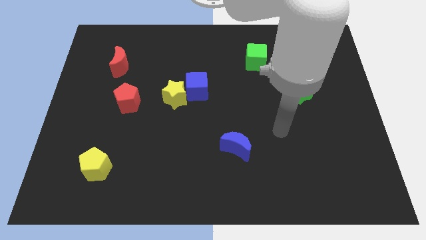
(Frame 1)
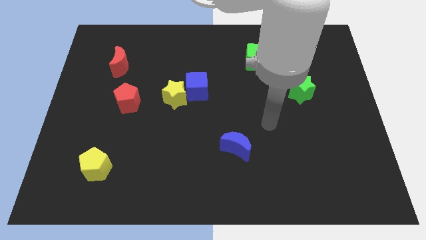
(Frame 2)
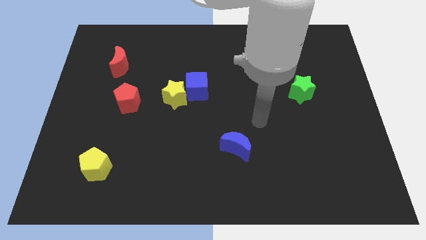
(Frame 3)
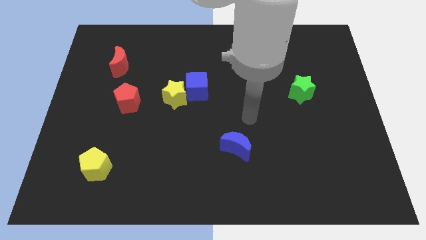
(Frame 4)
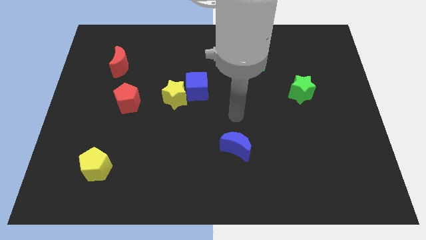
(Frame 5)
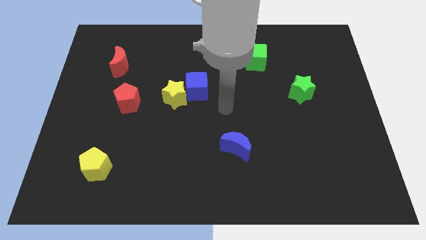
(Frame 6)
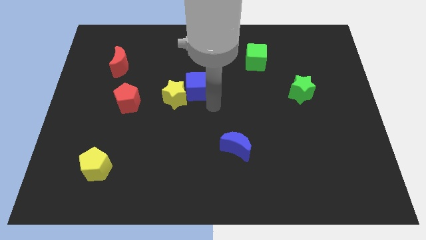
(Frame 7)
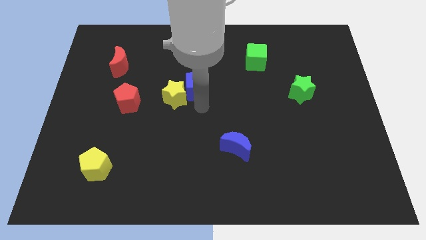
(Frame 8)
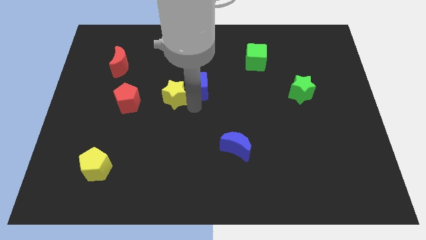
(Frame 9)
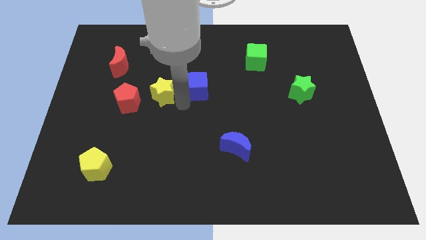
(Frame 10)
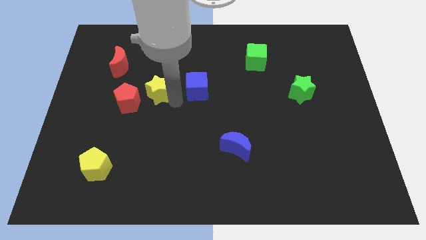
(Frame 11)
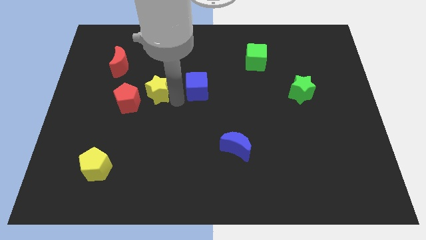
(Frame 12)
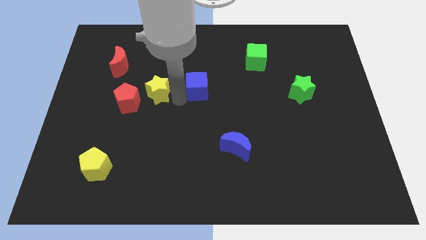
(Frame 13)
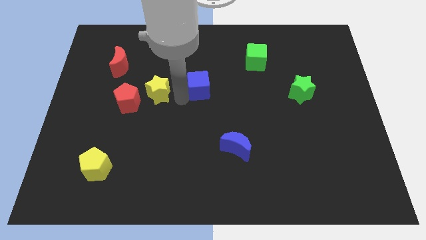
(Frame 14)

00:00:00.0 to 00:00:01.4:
separate the blue cube from the yellow star

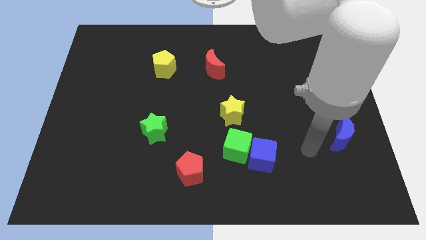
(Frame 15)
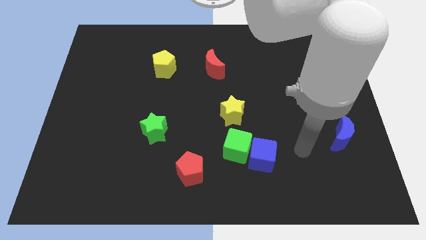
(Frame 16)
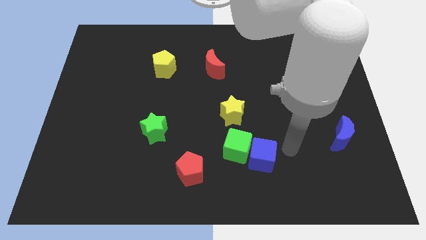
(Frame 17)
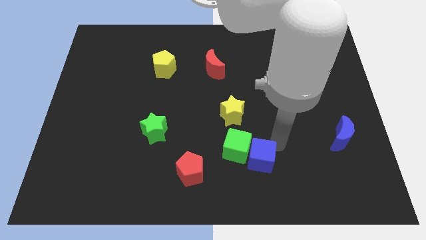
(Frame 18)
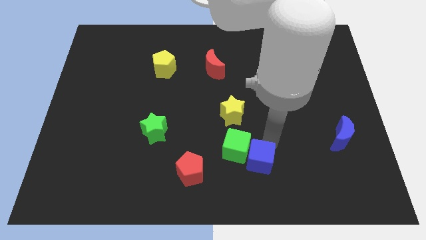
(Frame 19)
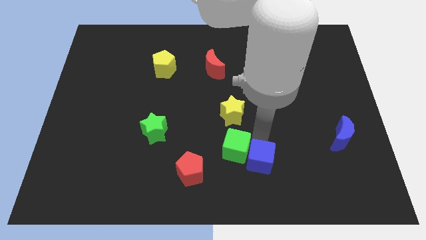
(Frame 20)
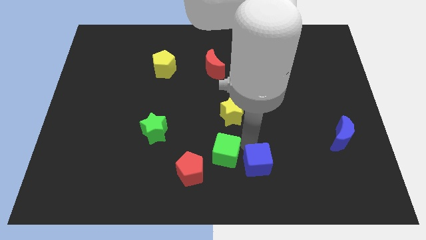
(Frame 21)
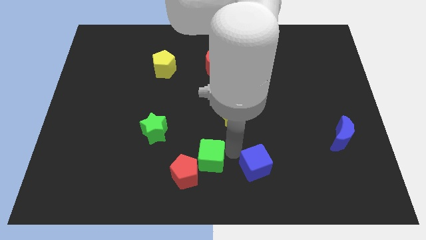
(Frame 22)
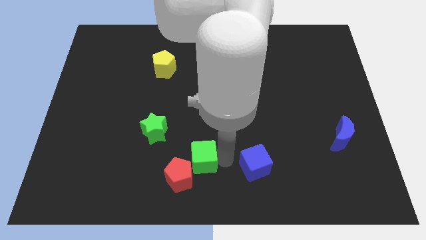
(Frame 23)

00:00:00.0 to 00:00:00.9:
move the blue cube away from the green cube

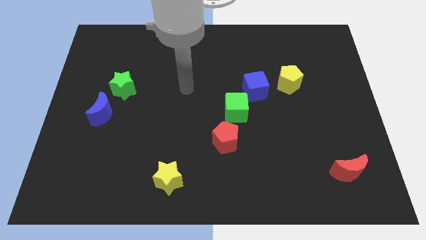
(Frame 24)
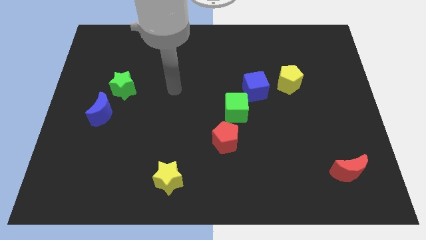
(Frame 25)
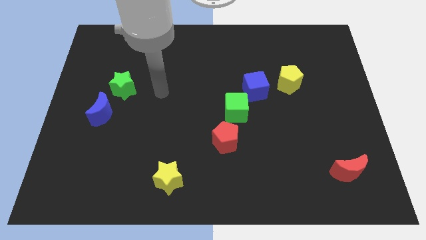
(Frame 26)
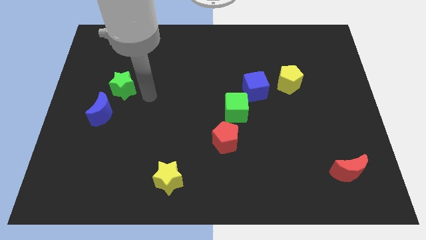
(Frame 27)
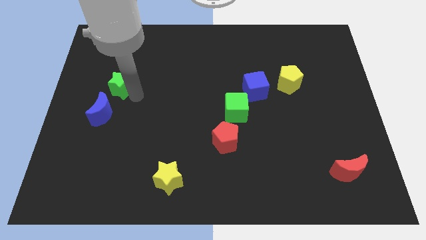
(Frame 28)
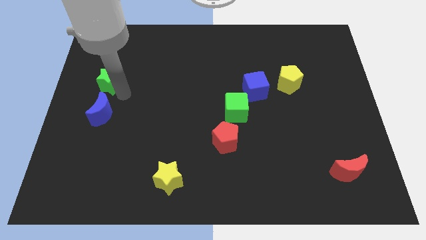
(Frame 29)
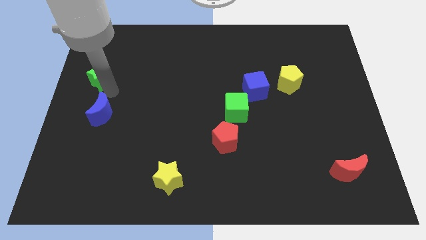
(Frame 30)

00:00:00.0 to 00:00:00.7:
move the blue moon away from the green star

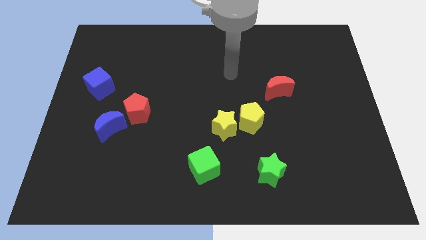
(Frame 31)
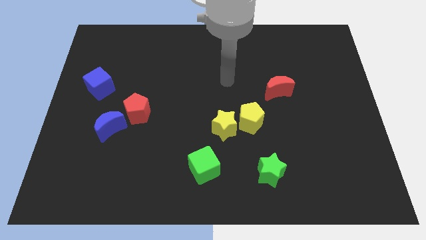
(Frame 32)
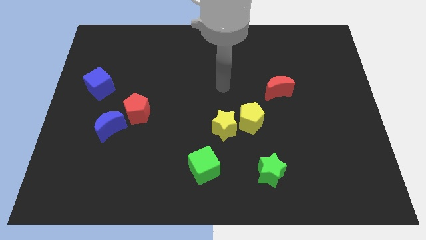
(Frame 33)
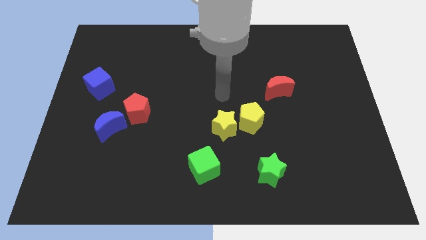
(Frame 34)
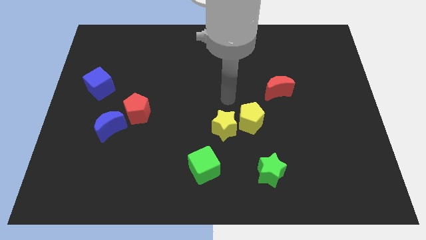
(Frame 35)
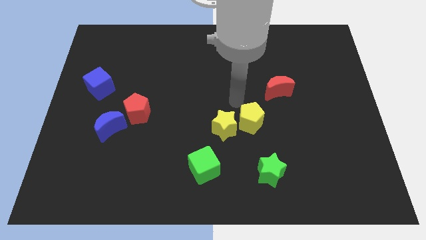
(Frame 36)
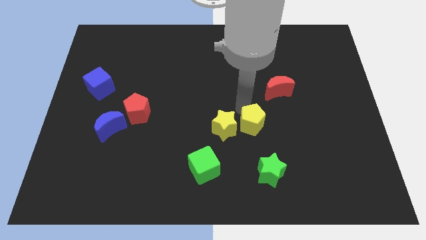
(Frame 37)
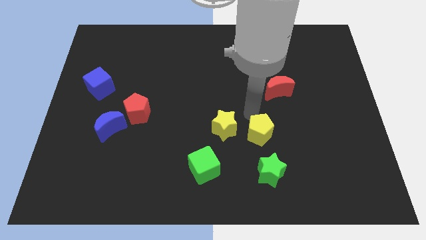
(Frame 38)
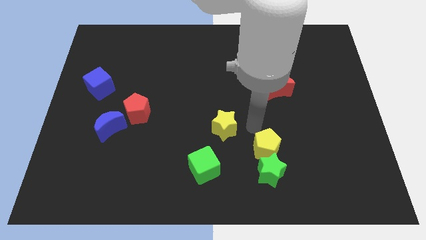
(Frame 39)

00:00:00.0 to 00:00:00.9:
move the yellow star away from the yellow pentagon

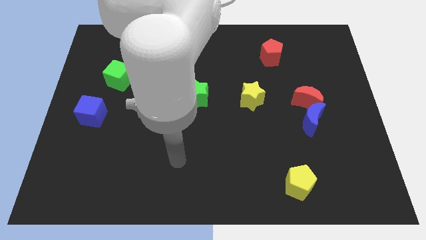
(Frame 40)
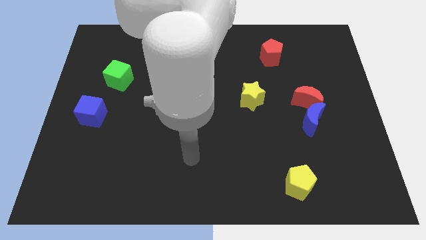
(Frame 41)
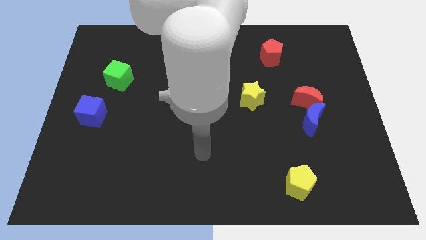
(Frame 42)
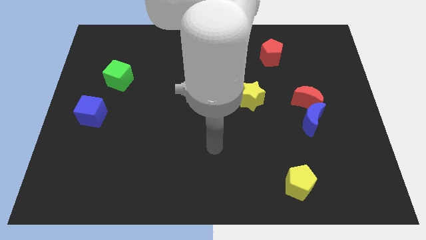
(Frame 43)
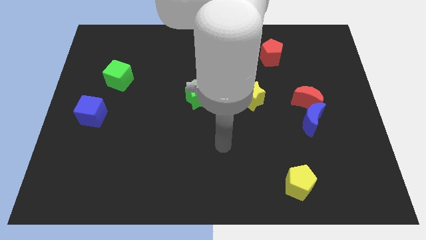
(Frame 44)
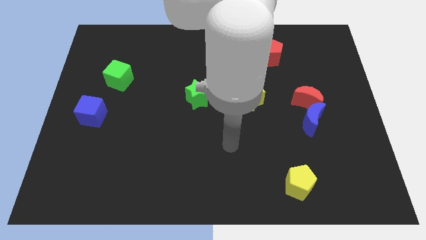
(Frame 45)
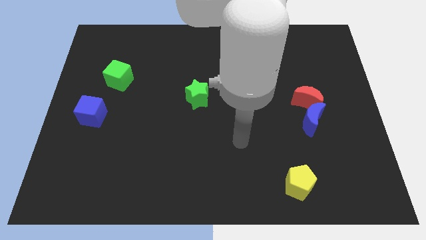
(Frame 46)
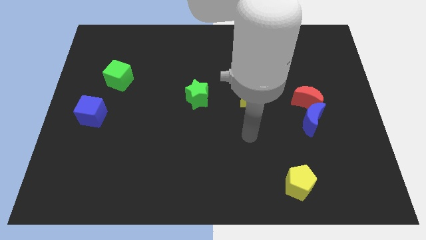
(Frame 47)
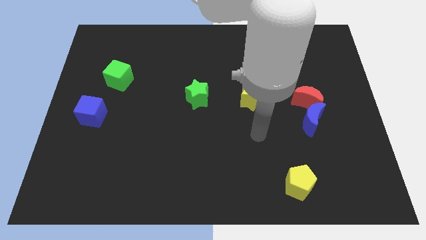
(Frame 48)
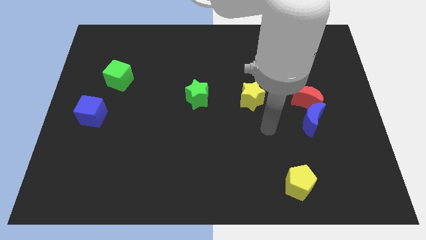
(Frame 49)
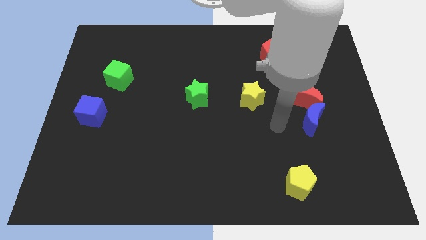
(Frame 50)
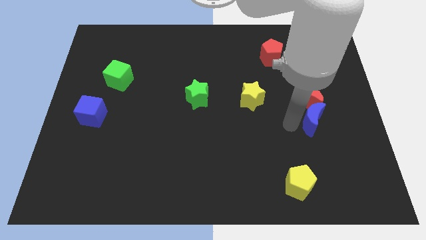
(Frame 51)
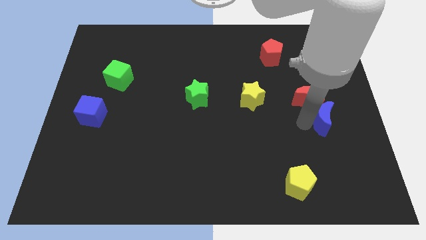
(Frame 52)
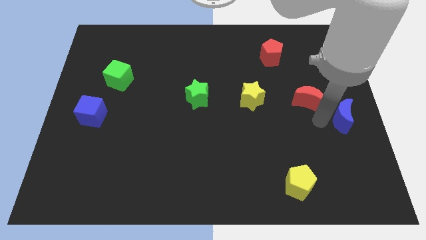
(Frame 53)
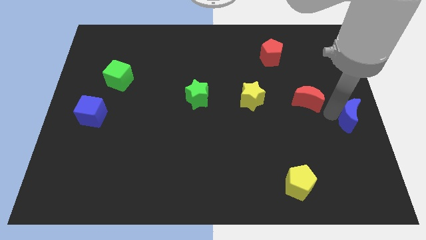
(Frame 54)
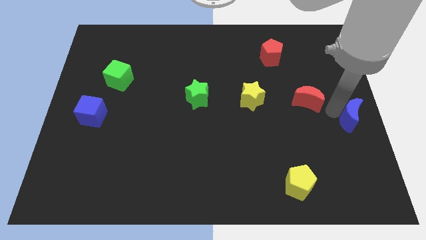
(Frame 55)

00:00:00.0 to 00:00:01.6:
separate the red moon from the blue moon

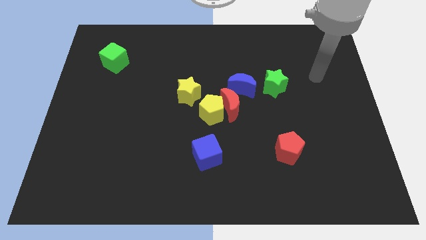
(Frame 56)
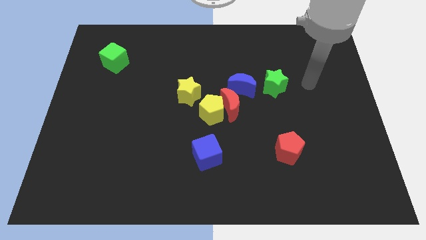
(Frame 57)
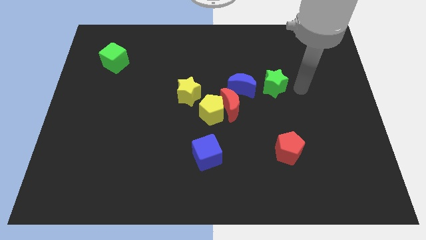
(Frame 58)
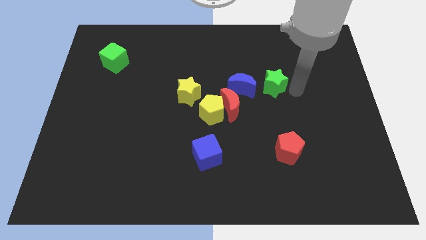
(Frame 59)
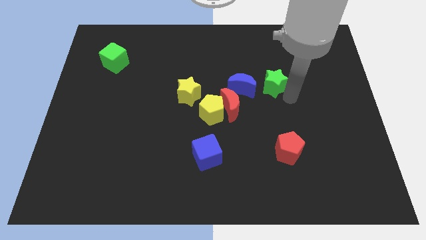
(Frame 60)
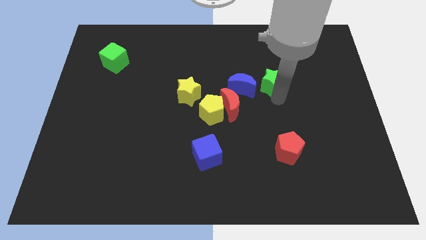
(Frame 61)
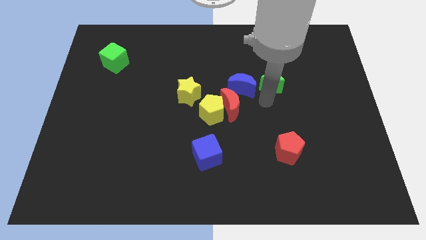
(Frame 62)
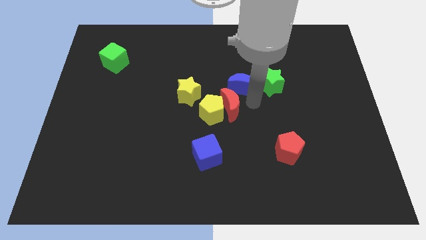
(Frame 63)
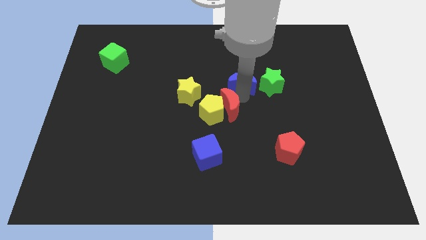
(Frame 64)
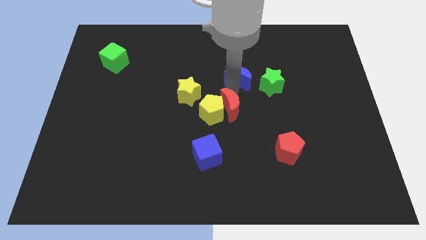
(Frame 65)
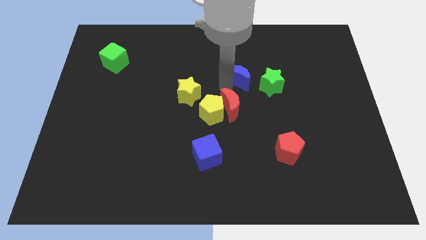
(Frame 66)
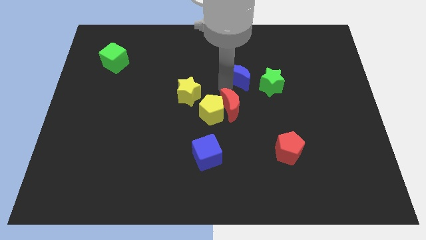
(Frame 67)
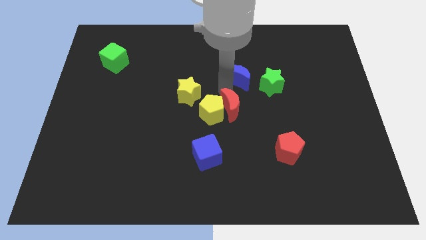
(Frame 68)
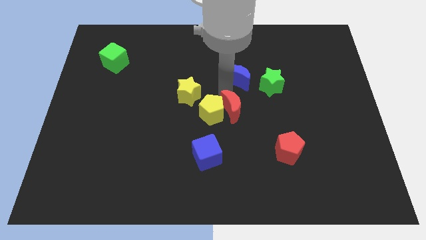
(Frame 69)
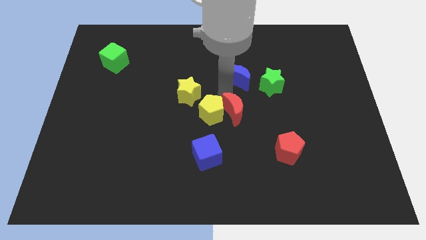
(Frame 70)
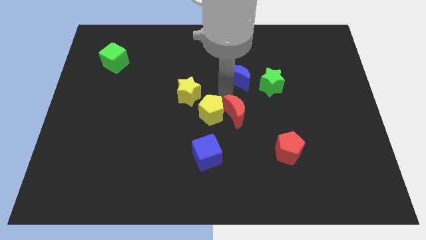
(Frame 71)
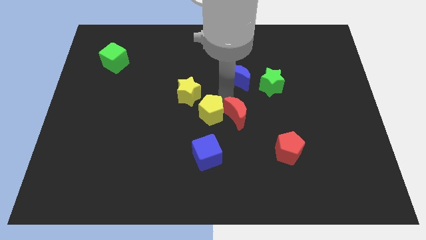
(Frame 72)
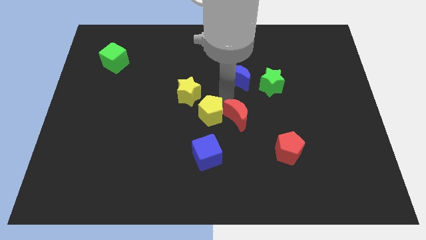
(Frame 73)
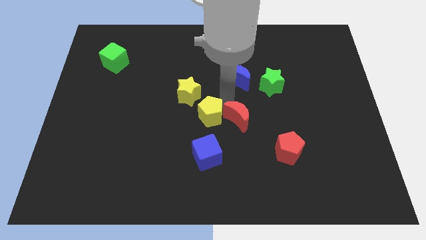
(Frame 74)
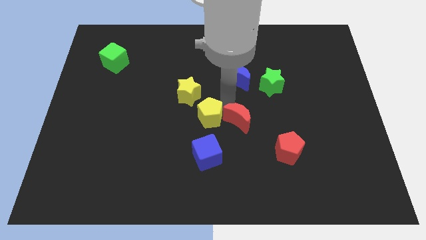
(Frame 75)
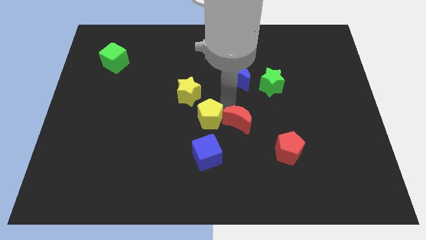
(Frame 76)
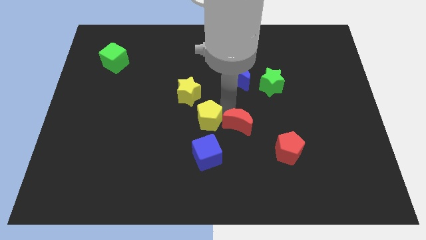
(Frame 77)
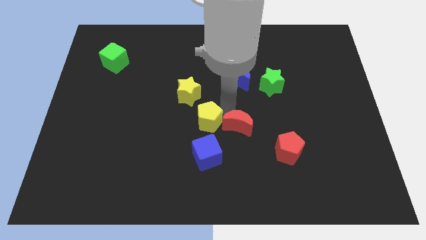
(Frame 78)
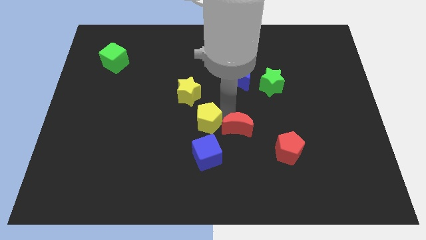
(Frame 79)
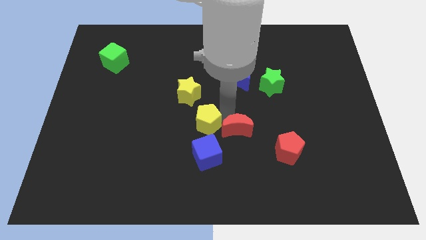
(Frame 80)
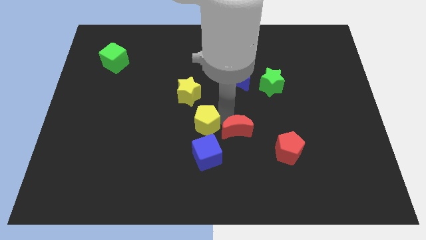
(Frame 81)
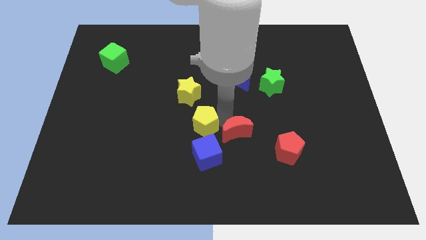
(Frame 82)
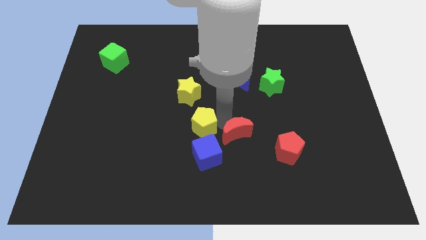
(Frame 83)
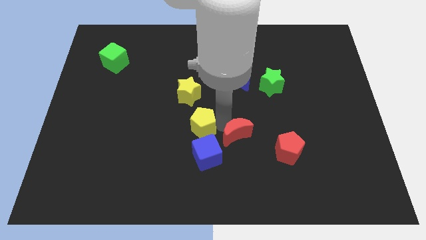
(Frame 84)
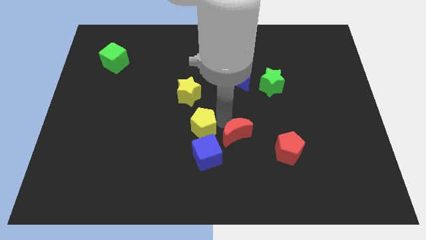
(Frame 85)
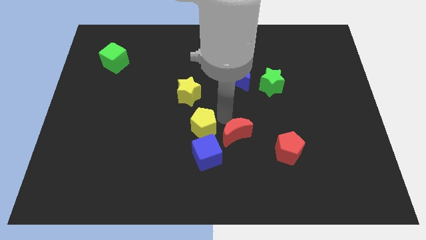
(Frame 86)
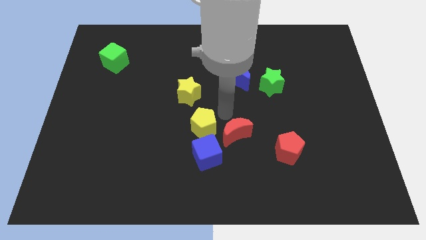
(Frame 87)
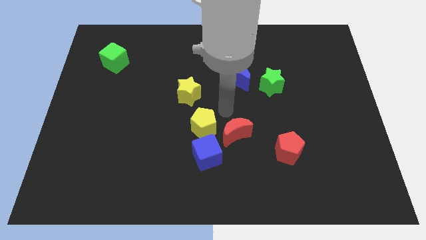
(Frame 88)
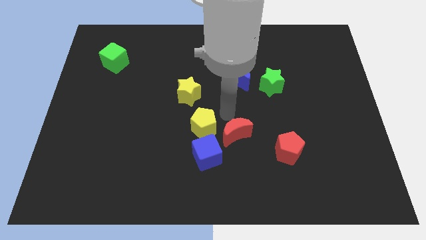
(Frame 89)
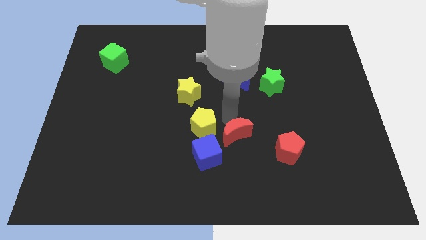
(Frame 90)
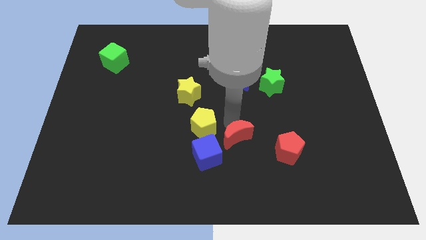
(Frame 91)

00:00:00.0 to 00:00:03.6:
move the red moon away from the yellow pentagon and blue moon

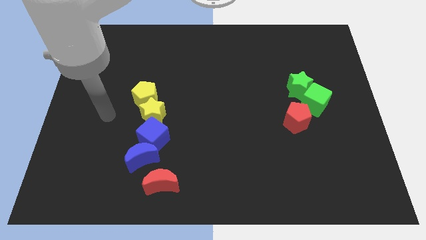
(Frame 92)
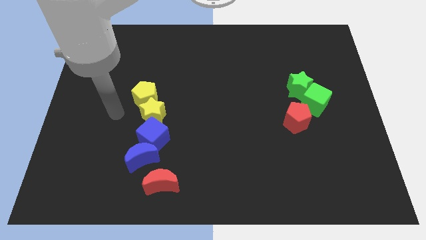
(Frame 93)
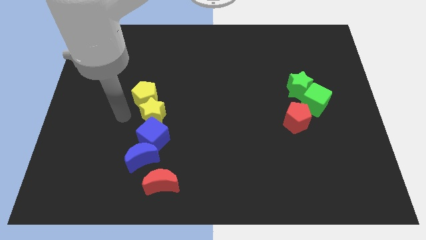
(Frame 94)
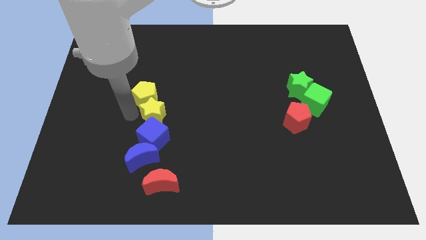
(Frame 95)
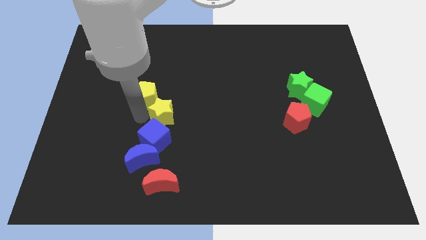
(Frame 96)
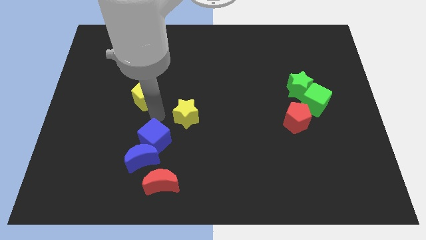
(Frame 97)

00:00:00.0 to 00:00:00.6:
separate the yellow pentagon from the yellow star
